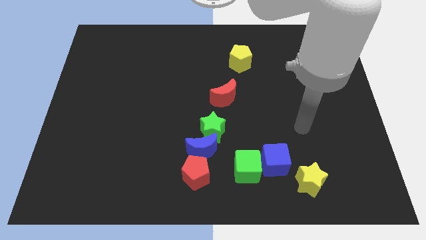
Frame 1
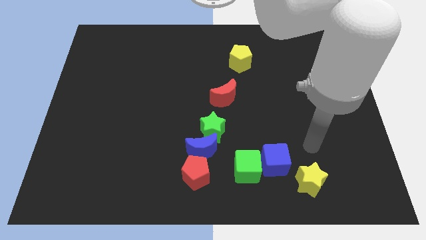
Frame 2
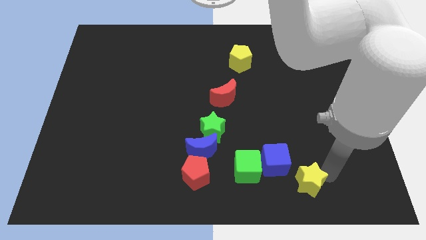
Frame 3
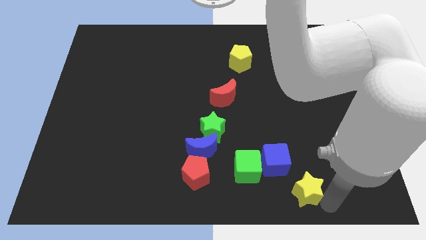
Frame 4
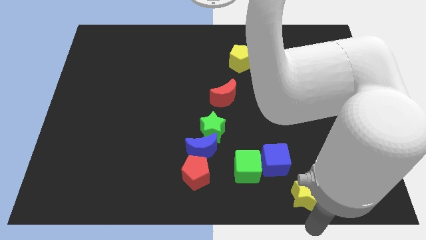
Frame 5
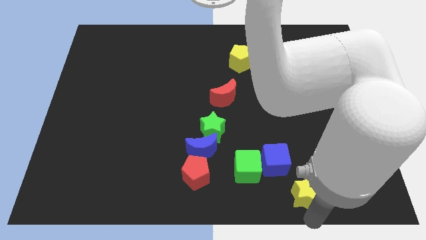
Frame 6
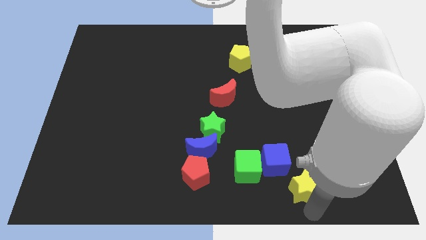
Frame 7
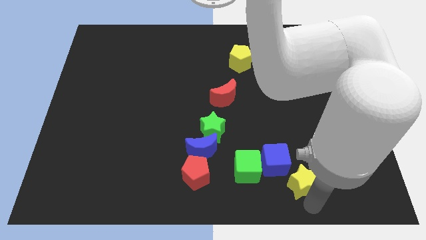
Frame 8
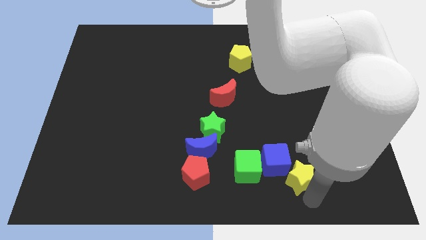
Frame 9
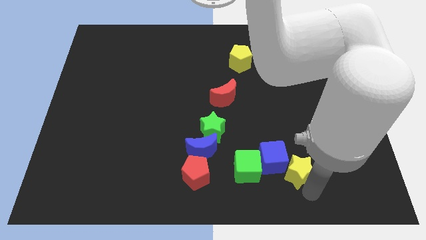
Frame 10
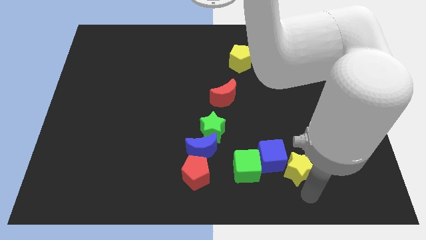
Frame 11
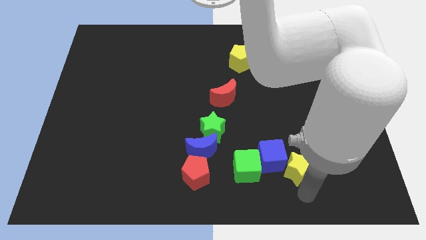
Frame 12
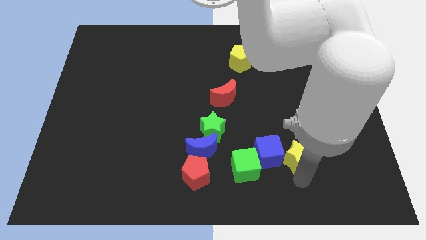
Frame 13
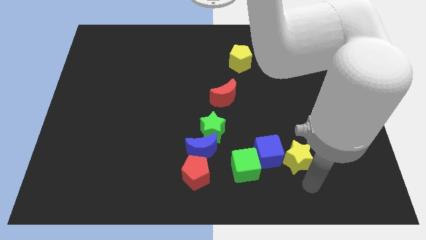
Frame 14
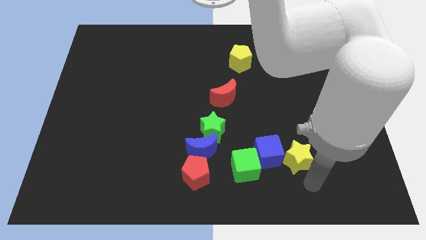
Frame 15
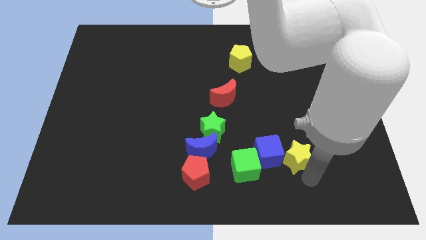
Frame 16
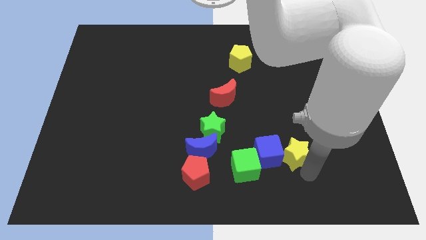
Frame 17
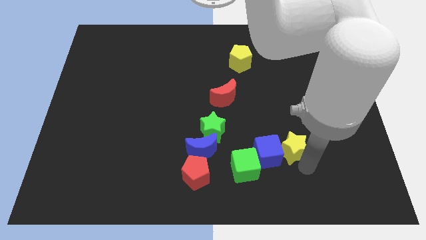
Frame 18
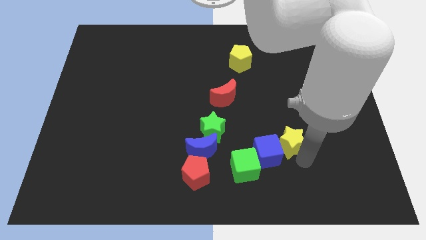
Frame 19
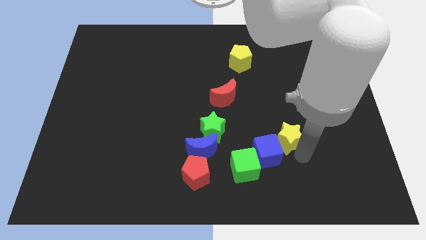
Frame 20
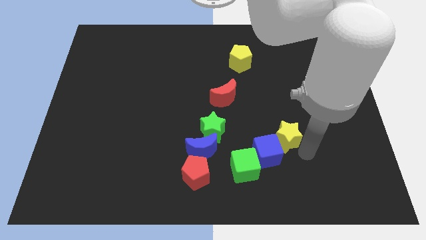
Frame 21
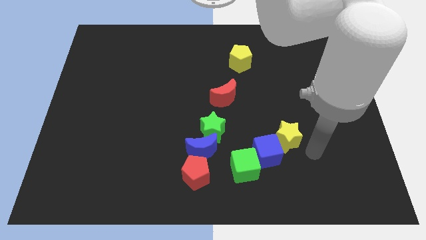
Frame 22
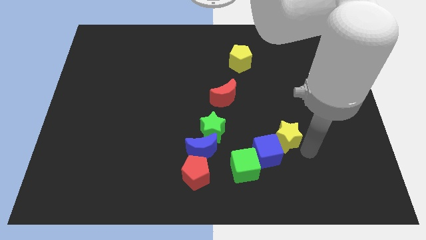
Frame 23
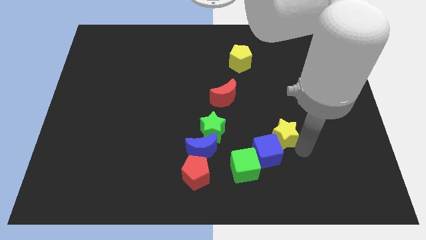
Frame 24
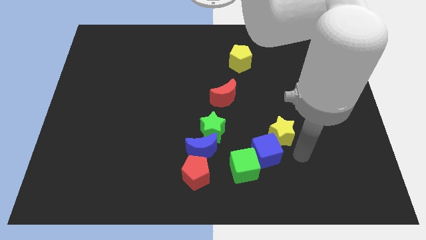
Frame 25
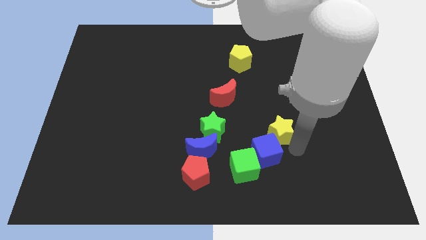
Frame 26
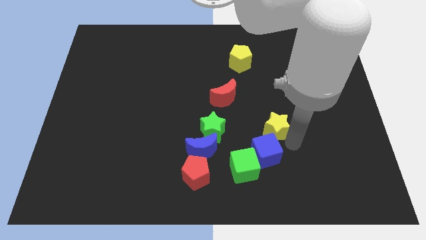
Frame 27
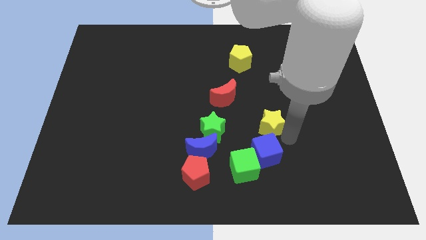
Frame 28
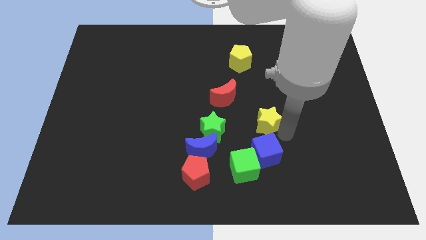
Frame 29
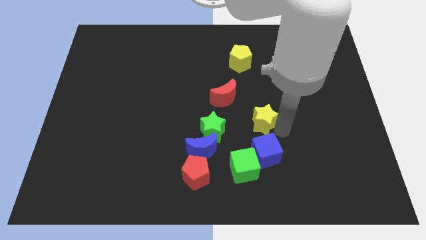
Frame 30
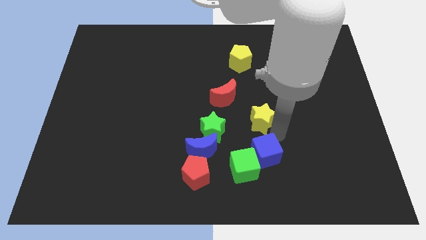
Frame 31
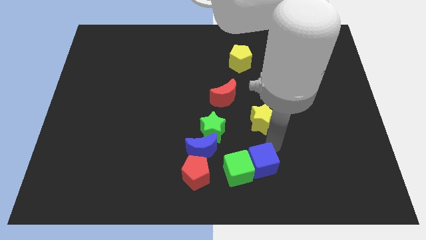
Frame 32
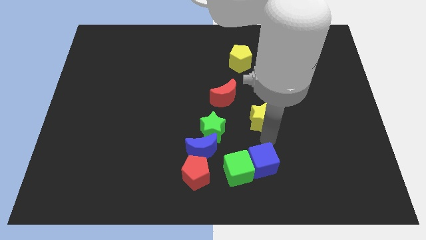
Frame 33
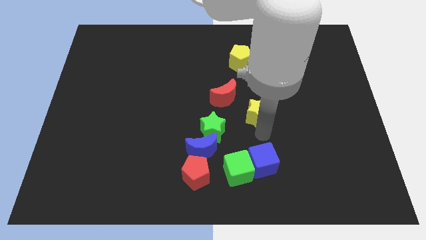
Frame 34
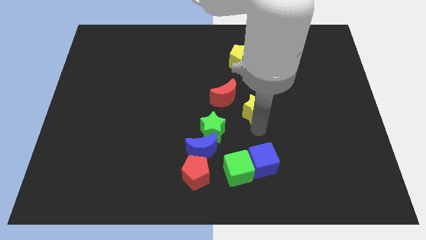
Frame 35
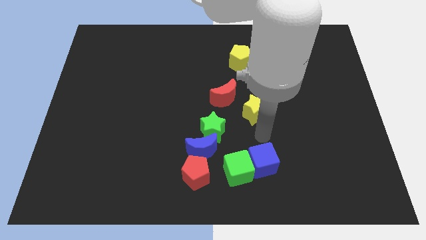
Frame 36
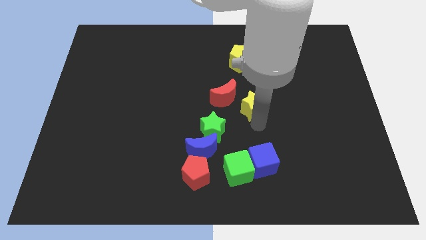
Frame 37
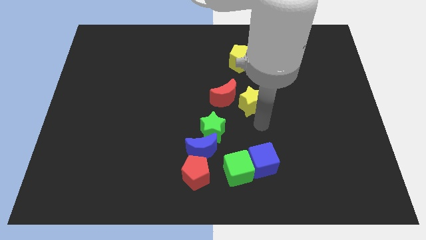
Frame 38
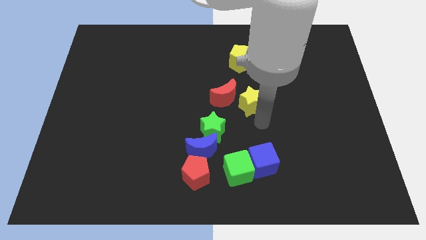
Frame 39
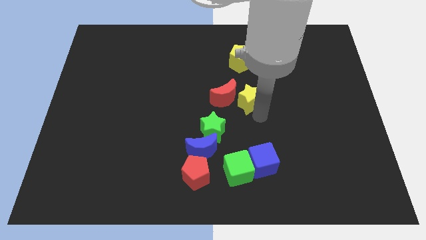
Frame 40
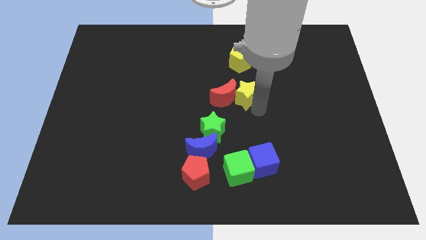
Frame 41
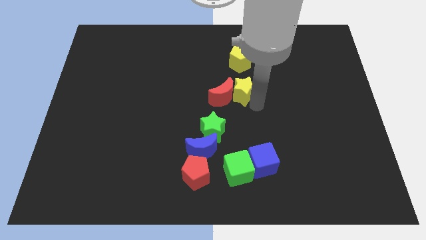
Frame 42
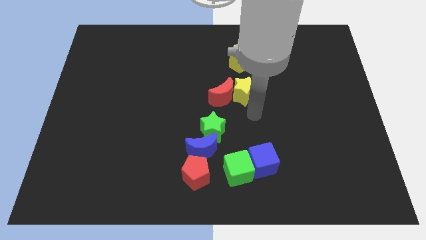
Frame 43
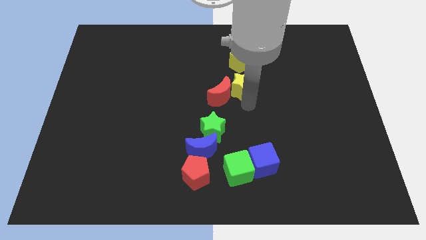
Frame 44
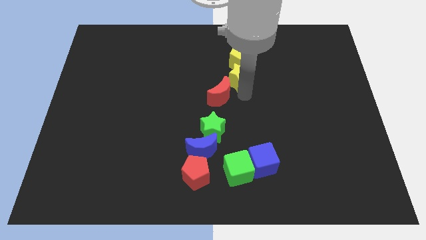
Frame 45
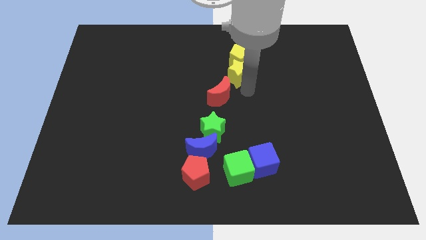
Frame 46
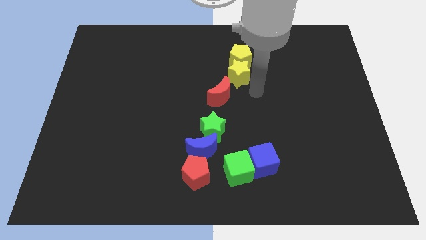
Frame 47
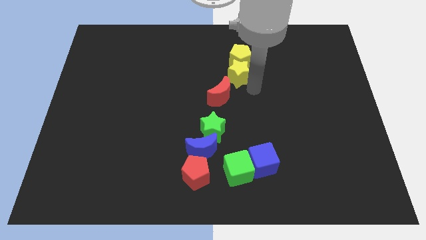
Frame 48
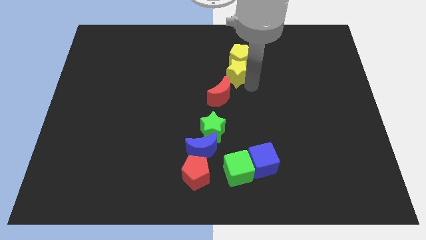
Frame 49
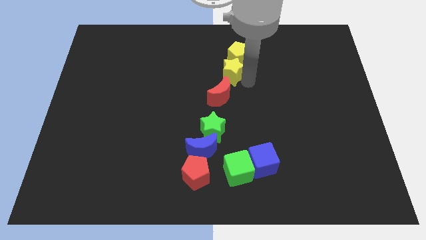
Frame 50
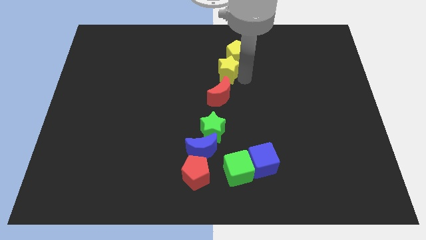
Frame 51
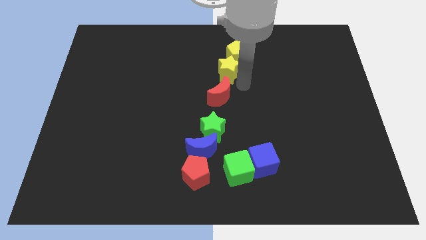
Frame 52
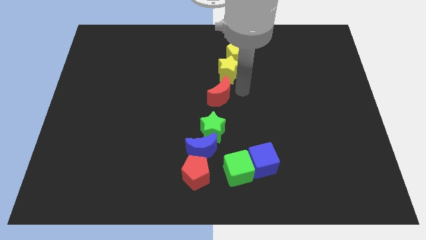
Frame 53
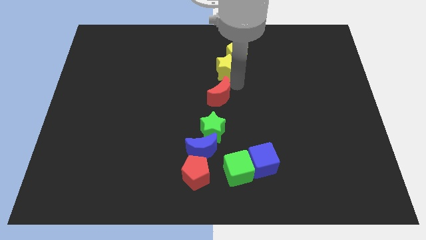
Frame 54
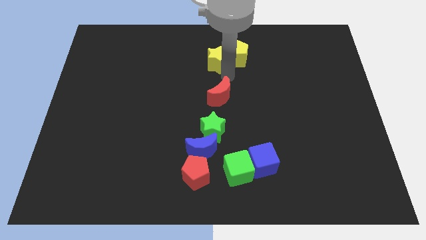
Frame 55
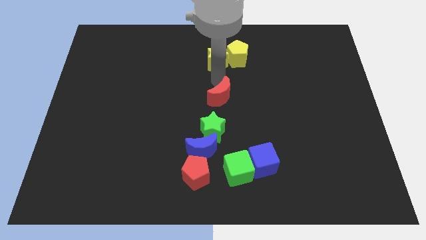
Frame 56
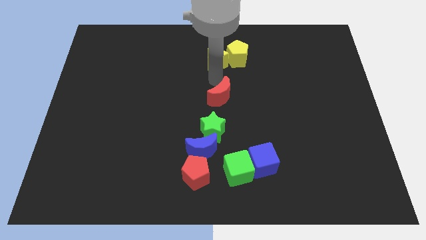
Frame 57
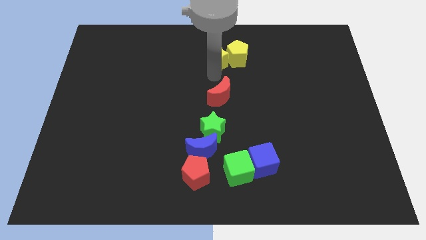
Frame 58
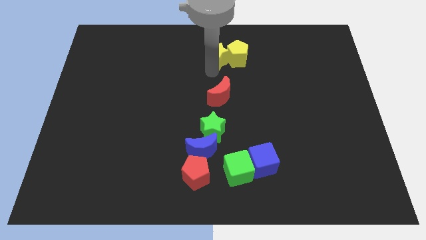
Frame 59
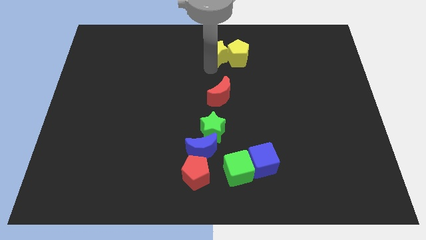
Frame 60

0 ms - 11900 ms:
put the yellow star to the top

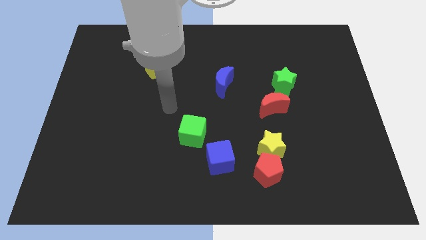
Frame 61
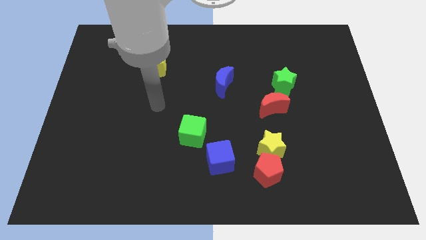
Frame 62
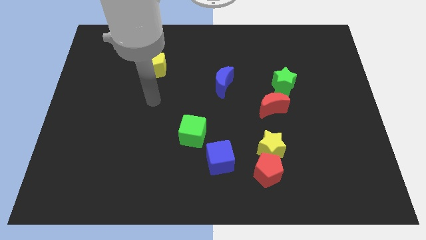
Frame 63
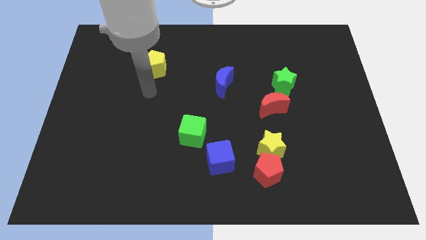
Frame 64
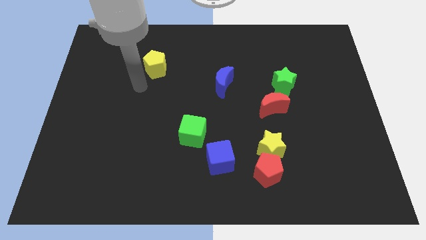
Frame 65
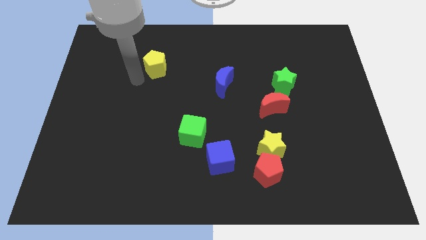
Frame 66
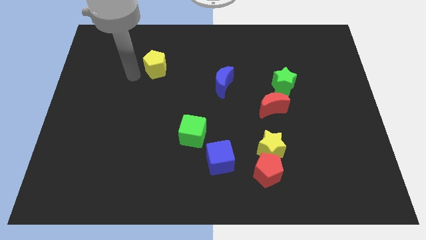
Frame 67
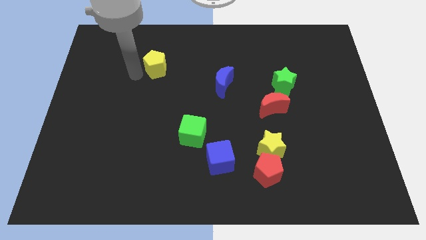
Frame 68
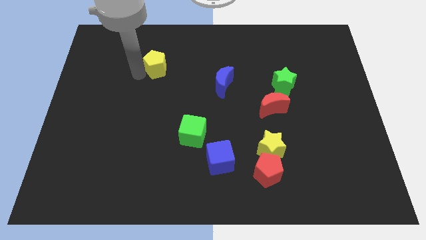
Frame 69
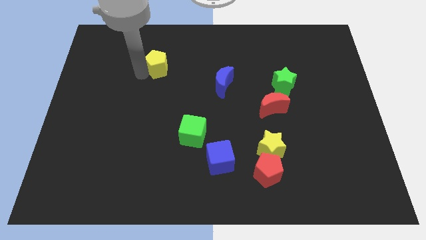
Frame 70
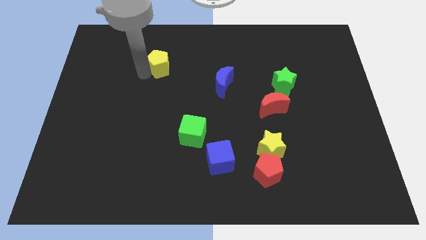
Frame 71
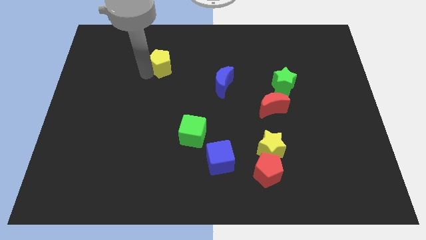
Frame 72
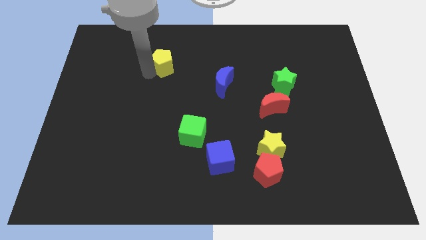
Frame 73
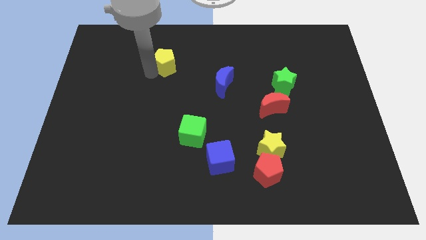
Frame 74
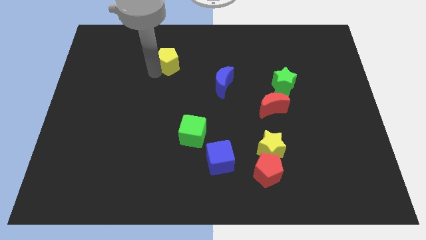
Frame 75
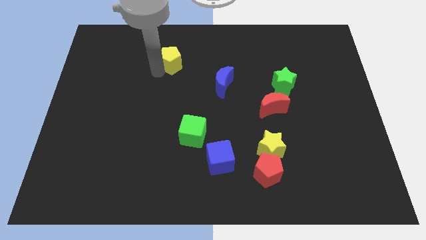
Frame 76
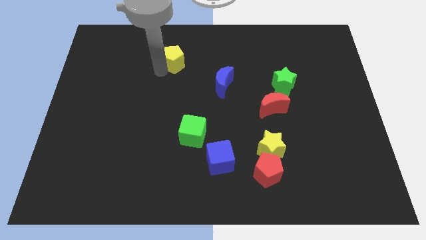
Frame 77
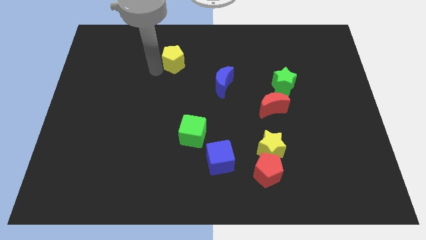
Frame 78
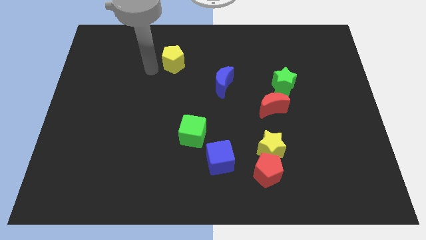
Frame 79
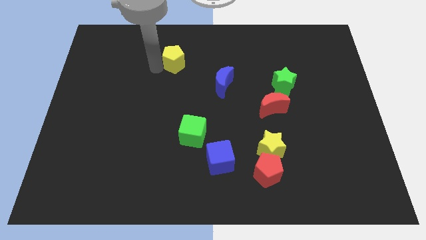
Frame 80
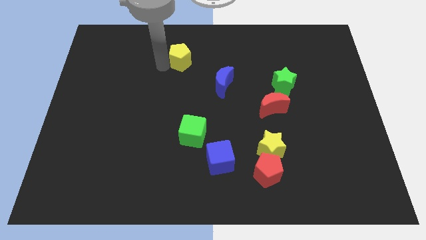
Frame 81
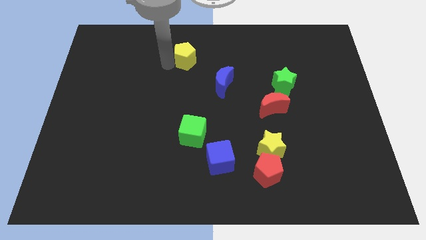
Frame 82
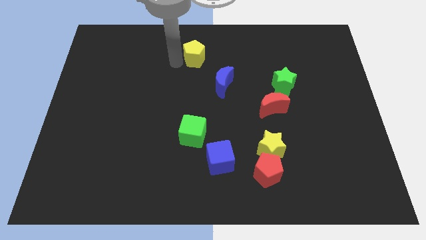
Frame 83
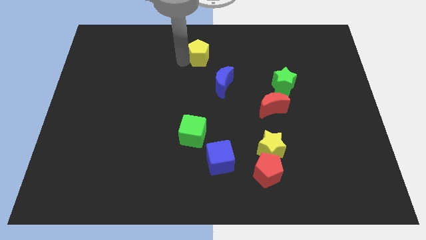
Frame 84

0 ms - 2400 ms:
put the yellow pentagon to the top side
